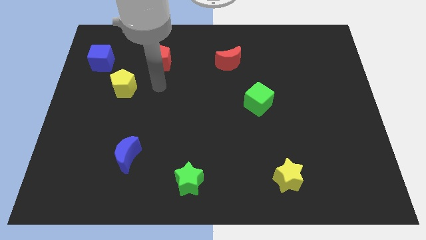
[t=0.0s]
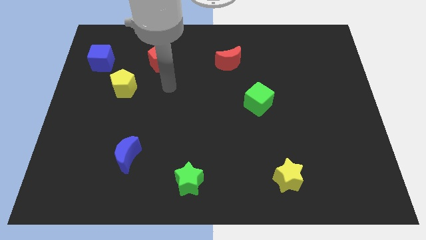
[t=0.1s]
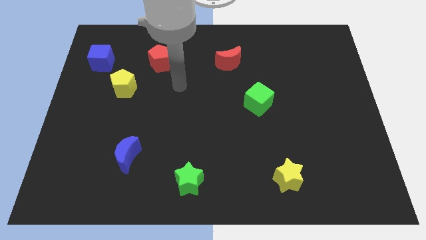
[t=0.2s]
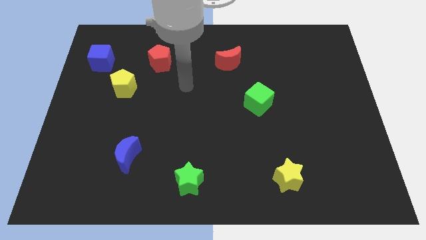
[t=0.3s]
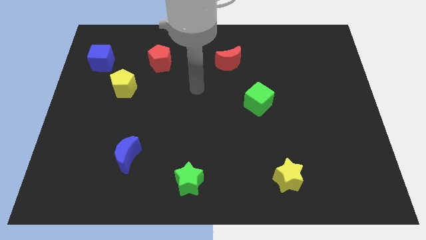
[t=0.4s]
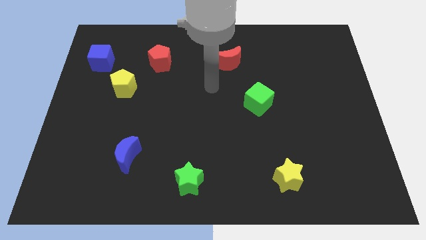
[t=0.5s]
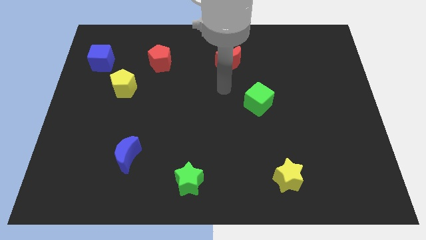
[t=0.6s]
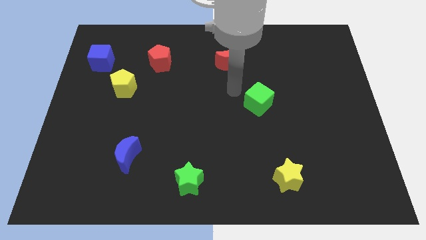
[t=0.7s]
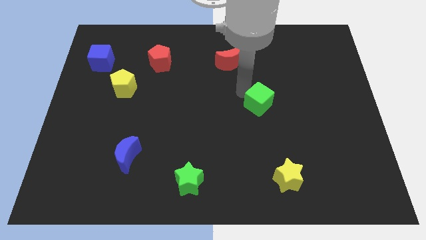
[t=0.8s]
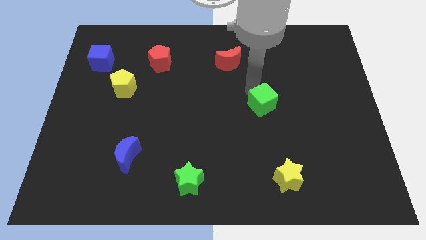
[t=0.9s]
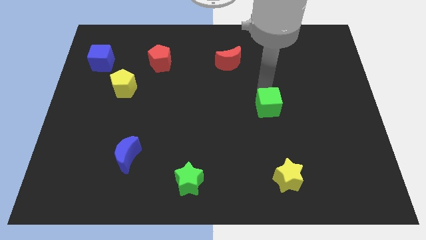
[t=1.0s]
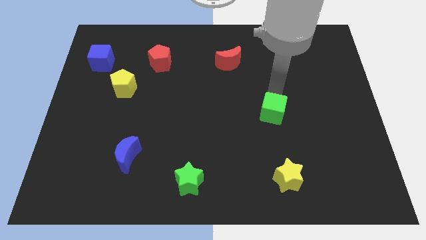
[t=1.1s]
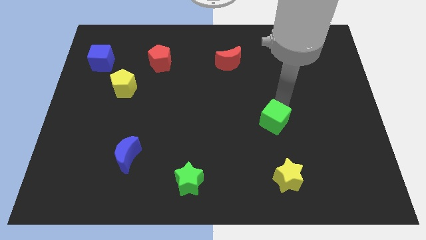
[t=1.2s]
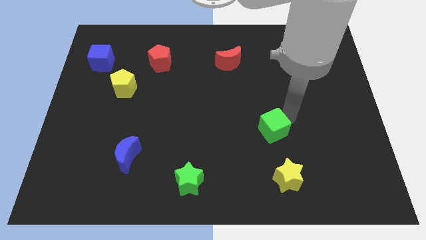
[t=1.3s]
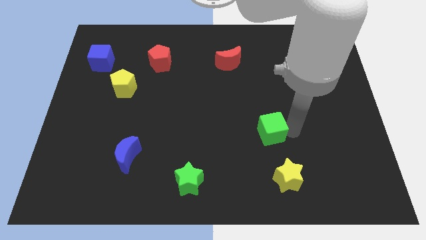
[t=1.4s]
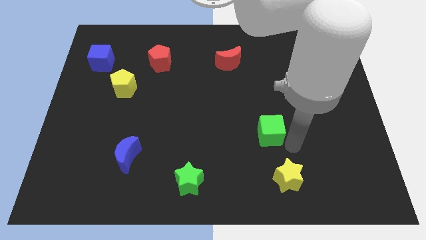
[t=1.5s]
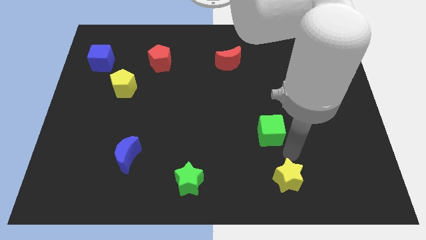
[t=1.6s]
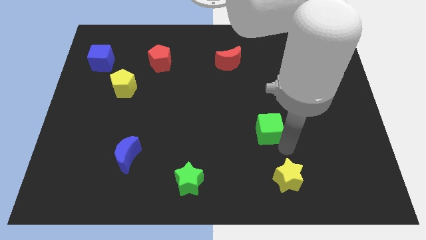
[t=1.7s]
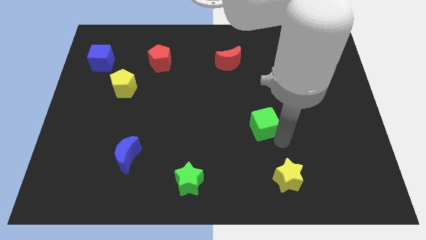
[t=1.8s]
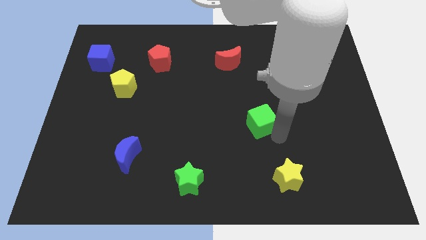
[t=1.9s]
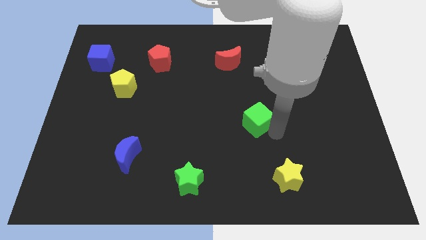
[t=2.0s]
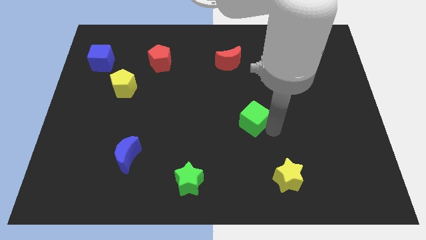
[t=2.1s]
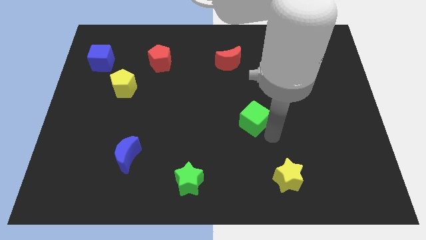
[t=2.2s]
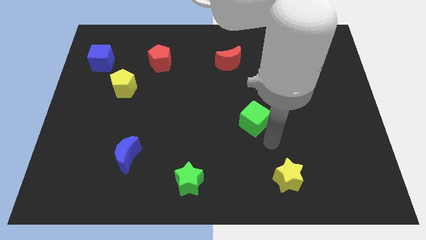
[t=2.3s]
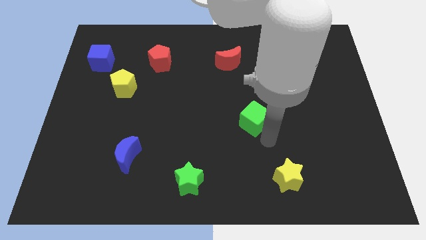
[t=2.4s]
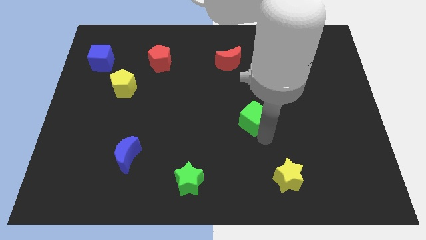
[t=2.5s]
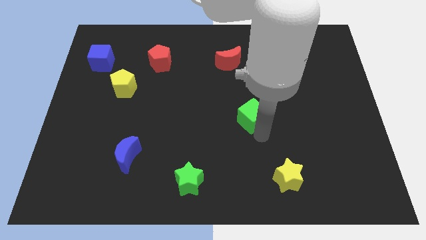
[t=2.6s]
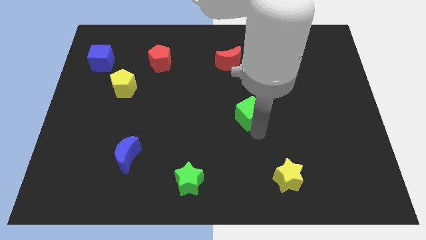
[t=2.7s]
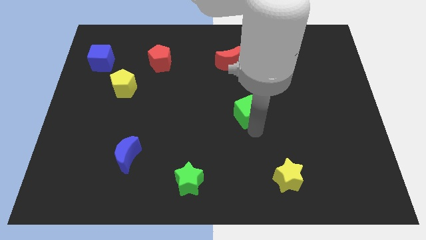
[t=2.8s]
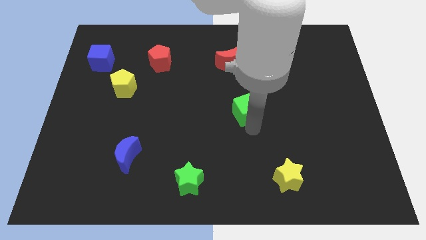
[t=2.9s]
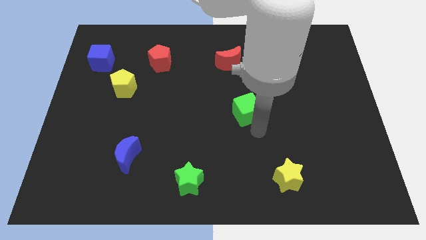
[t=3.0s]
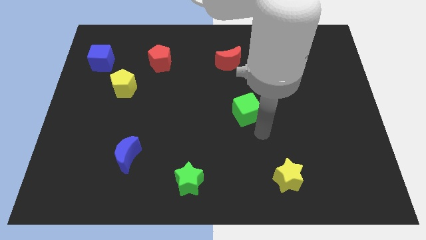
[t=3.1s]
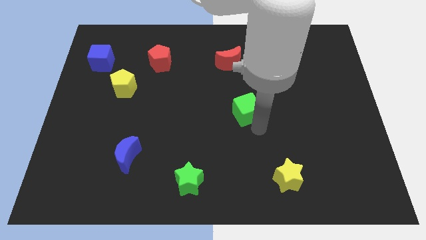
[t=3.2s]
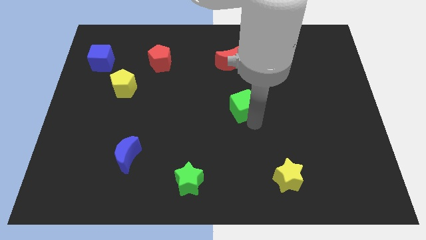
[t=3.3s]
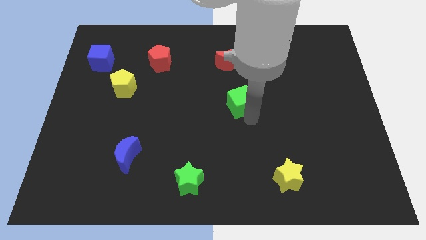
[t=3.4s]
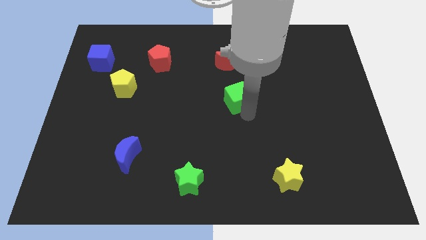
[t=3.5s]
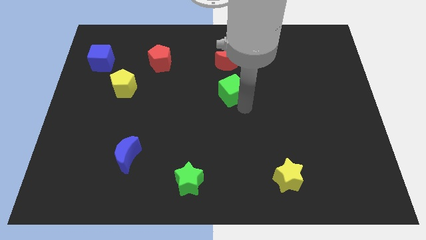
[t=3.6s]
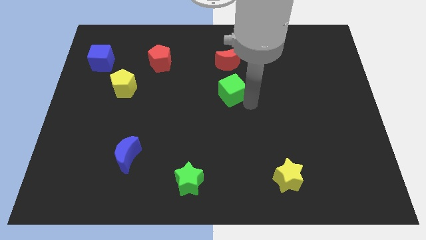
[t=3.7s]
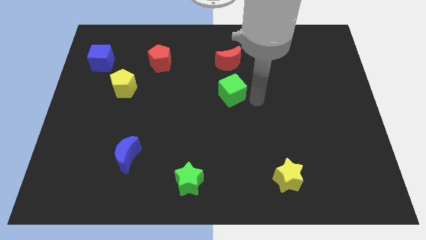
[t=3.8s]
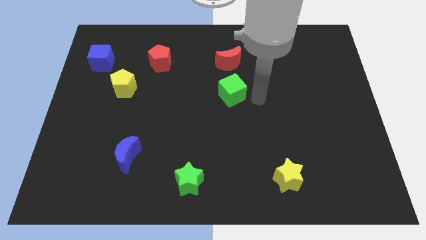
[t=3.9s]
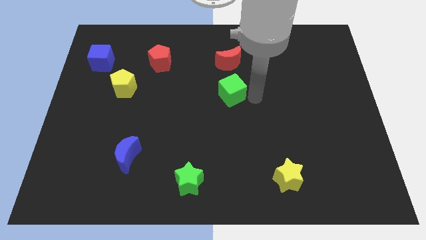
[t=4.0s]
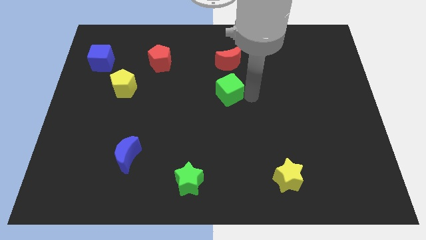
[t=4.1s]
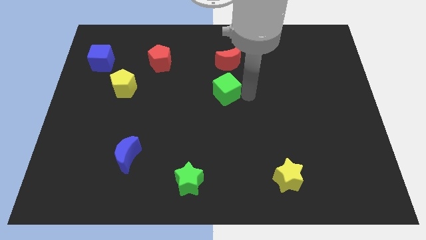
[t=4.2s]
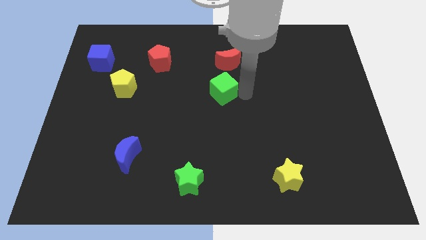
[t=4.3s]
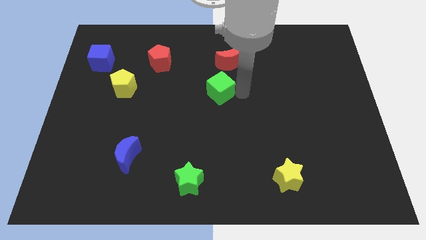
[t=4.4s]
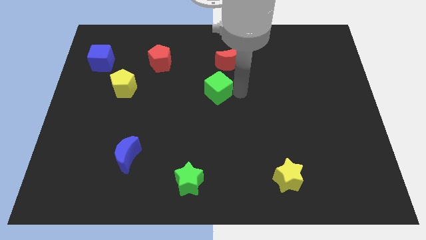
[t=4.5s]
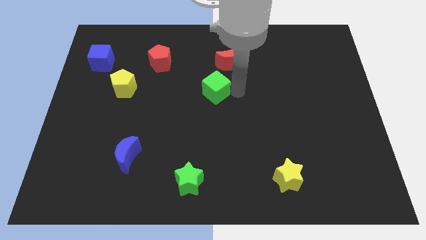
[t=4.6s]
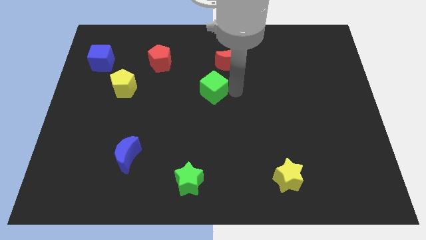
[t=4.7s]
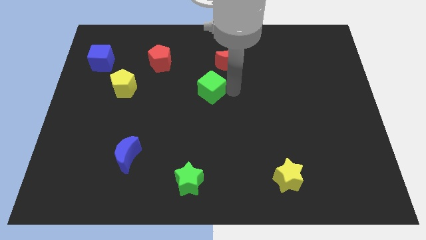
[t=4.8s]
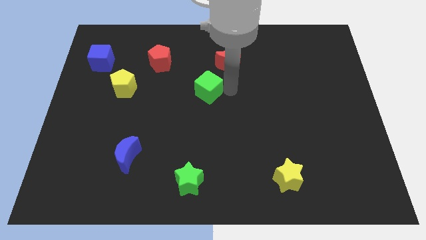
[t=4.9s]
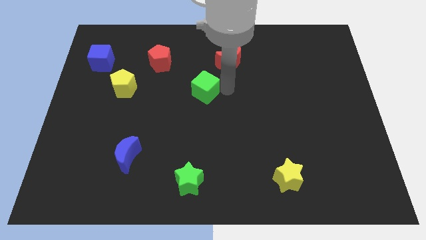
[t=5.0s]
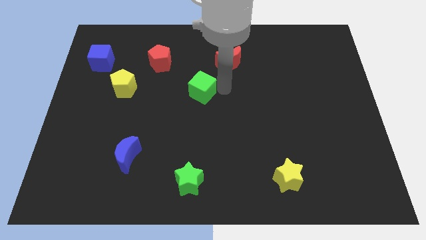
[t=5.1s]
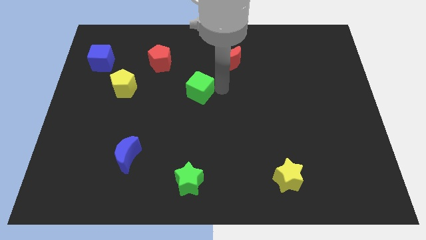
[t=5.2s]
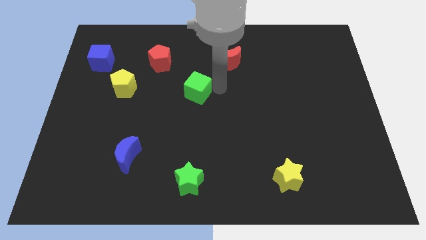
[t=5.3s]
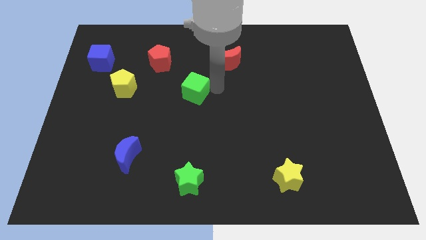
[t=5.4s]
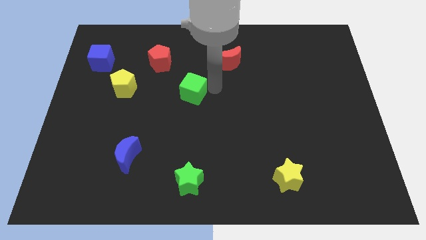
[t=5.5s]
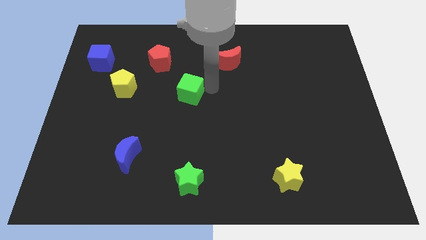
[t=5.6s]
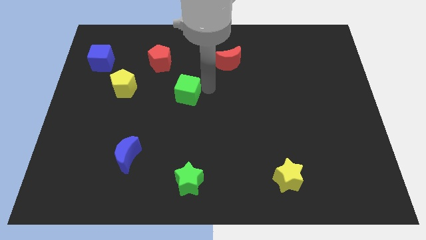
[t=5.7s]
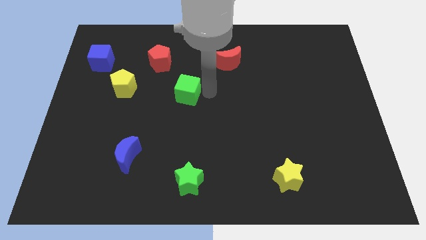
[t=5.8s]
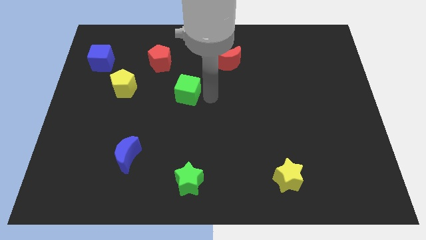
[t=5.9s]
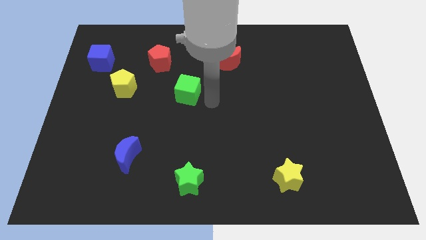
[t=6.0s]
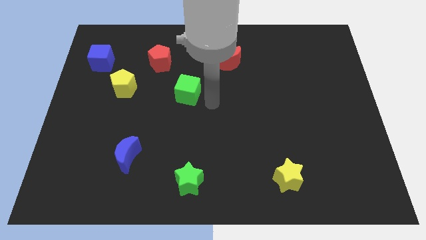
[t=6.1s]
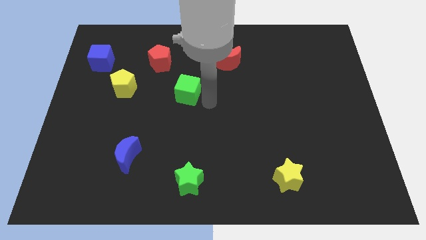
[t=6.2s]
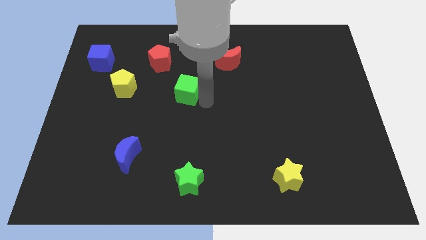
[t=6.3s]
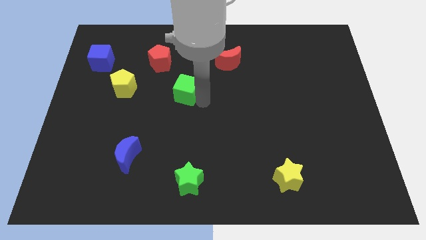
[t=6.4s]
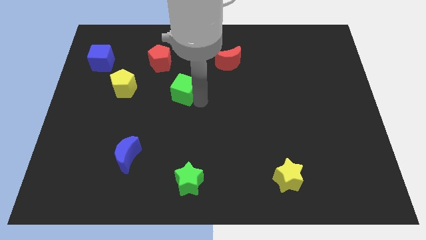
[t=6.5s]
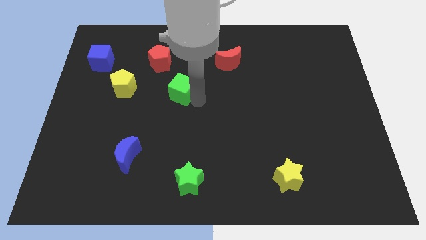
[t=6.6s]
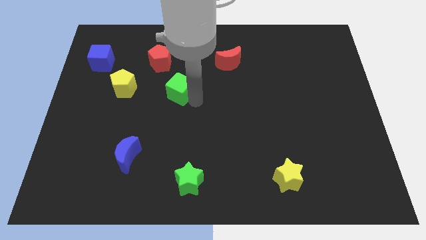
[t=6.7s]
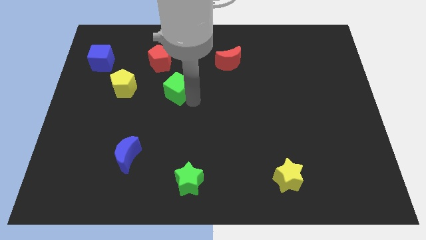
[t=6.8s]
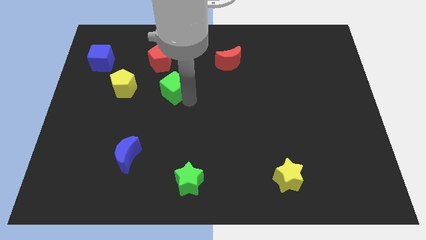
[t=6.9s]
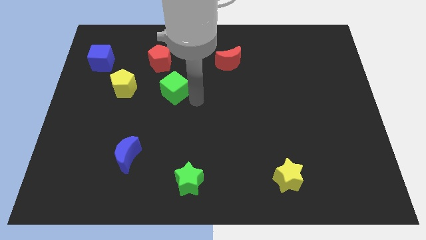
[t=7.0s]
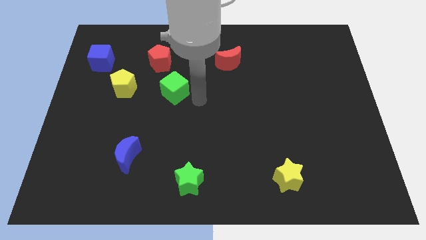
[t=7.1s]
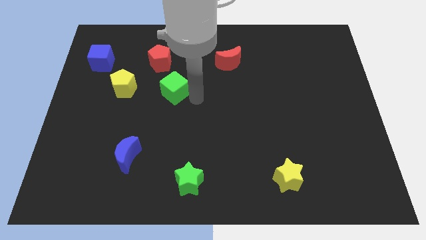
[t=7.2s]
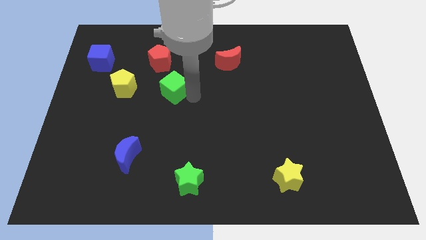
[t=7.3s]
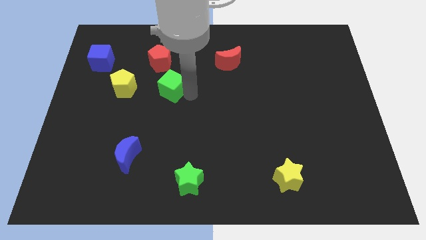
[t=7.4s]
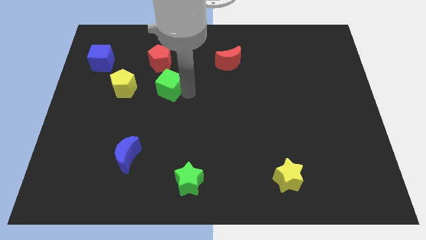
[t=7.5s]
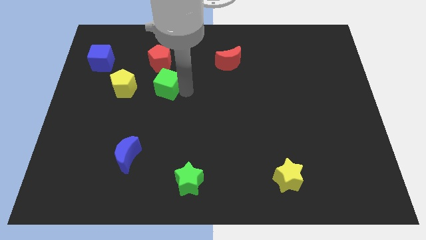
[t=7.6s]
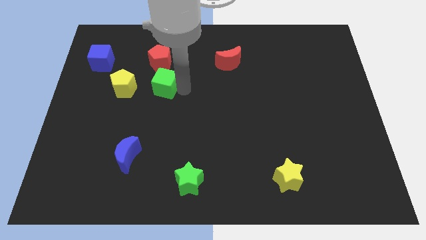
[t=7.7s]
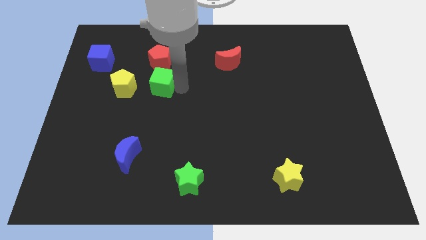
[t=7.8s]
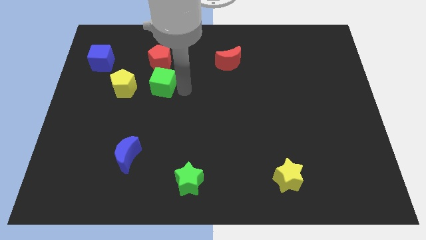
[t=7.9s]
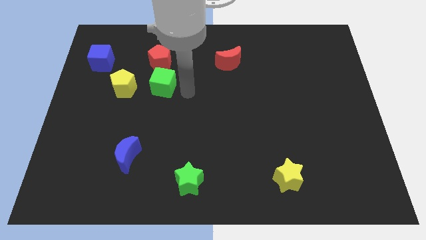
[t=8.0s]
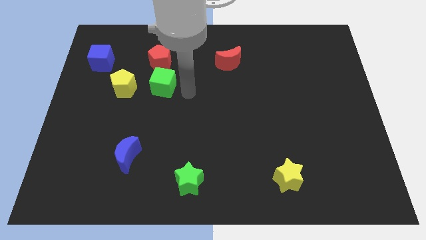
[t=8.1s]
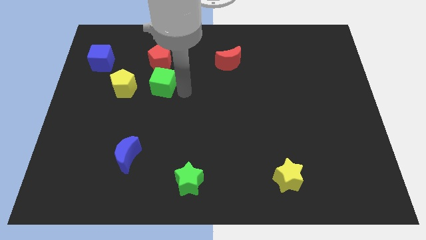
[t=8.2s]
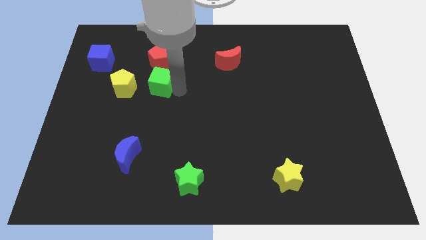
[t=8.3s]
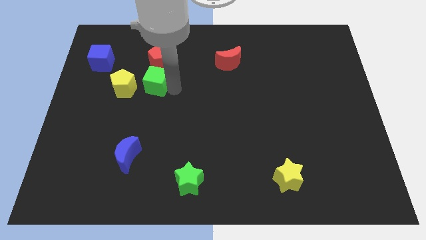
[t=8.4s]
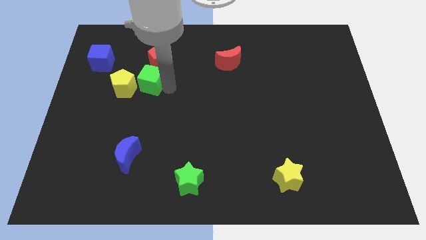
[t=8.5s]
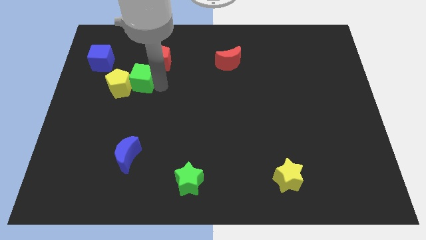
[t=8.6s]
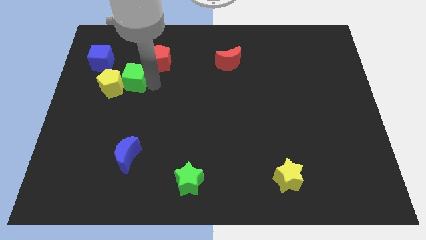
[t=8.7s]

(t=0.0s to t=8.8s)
put the green cube diagonally down and to the right of the blue cube
